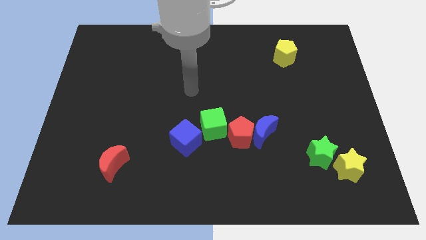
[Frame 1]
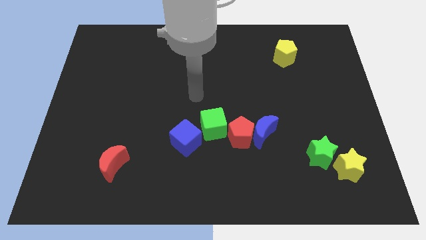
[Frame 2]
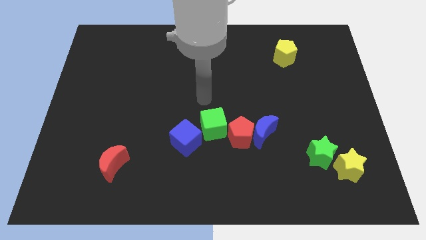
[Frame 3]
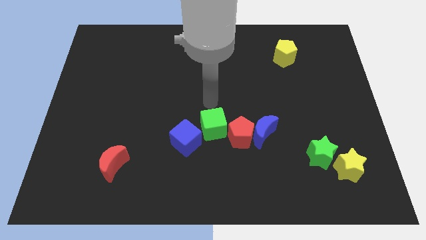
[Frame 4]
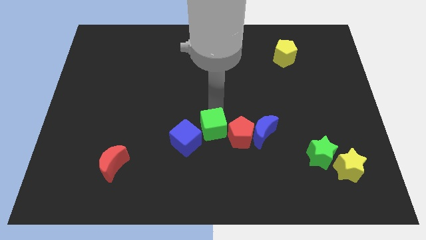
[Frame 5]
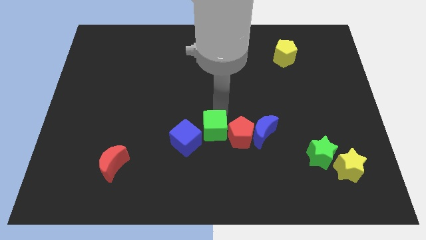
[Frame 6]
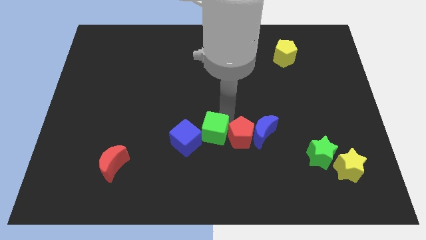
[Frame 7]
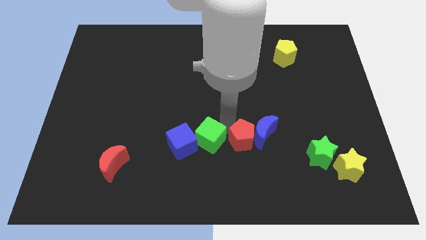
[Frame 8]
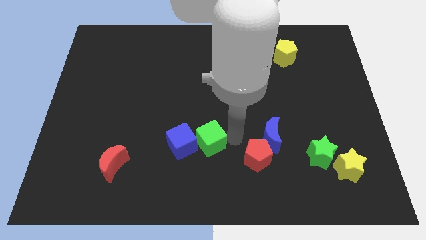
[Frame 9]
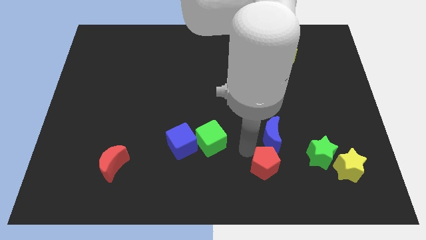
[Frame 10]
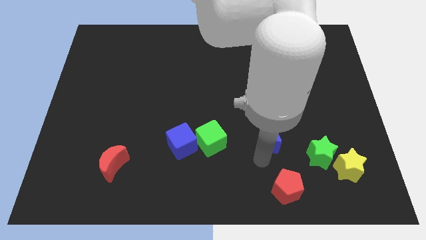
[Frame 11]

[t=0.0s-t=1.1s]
move the blue moon away from the red pentagon

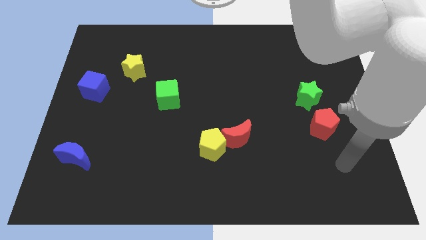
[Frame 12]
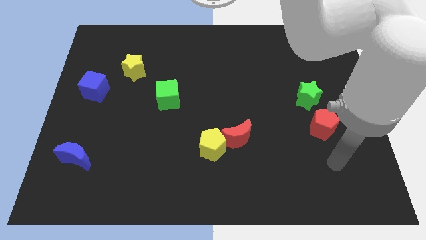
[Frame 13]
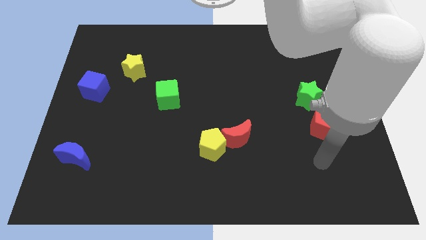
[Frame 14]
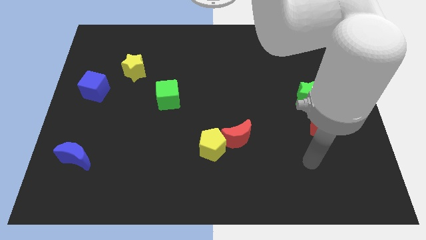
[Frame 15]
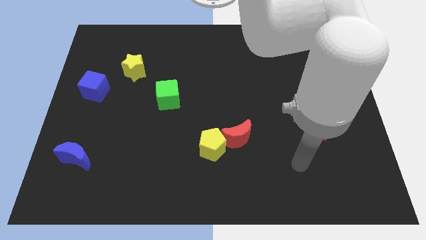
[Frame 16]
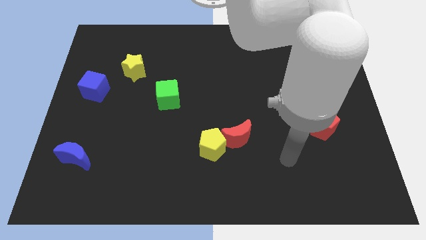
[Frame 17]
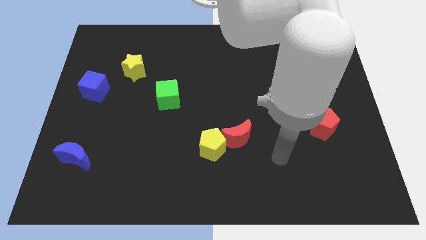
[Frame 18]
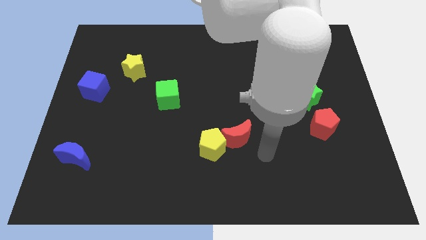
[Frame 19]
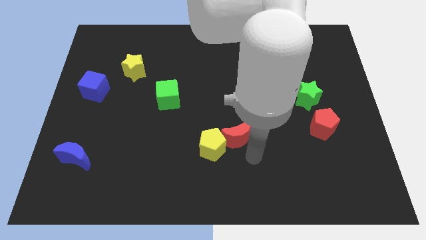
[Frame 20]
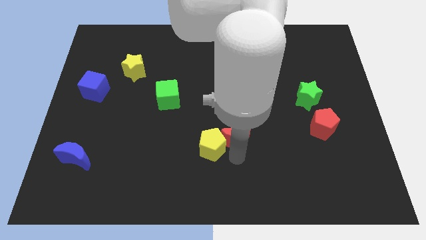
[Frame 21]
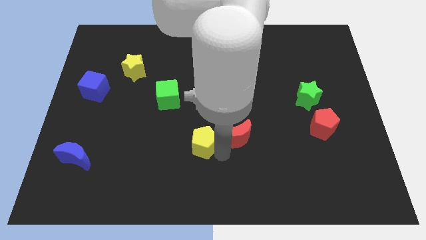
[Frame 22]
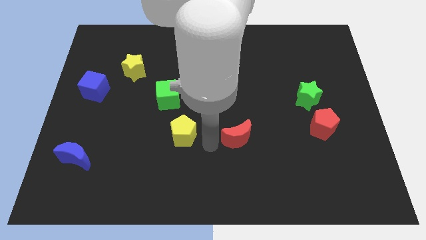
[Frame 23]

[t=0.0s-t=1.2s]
move the red moon away from the yellow pentagon

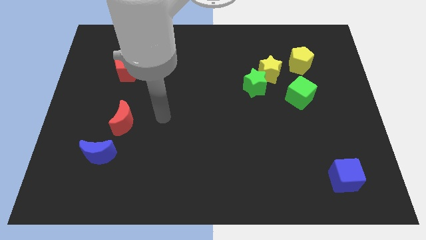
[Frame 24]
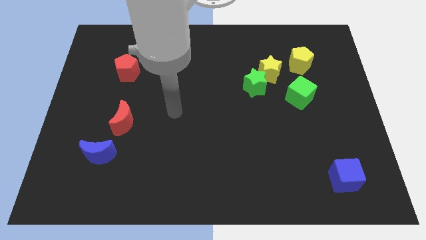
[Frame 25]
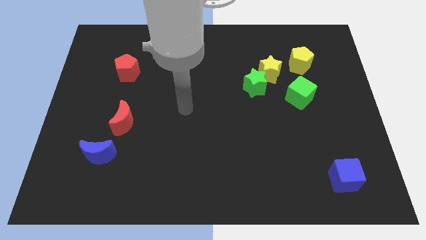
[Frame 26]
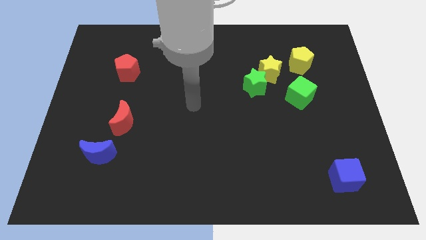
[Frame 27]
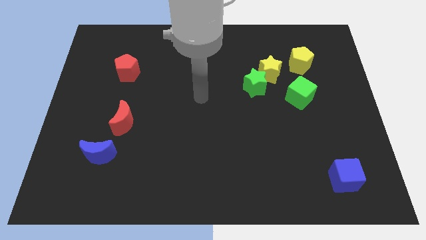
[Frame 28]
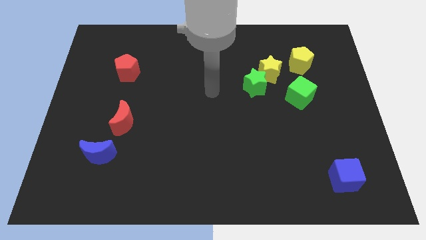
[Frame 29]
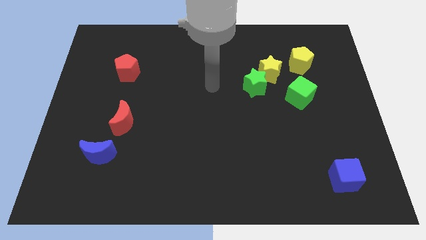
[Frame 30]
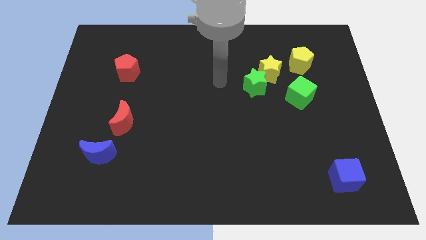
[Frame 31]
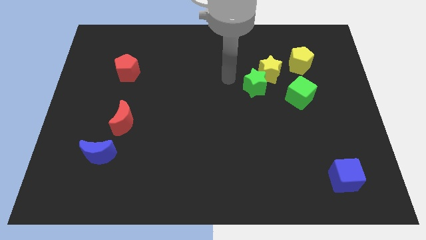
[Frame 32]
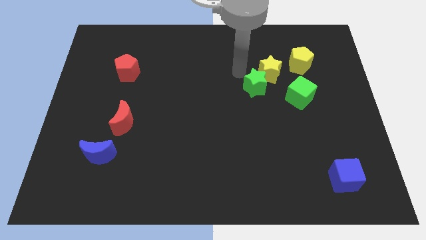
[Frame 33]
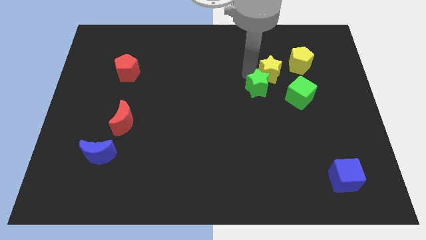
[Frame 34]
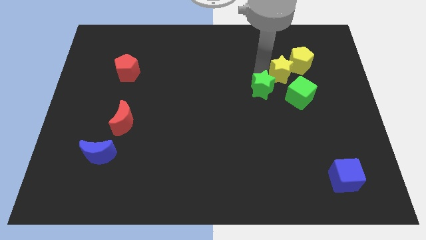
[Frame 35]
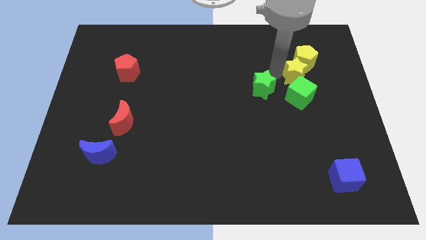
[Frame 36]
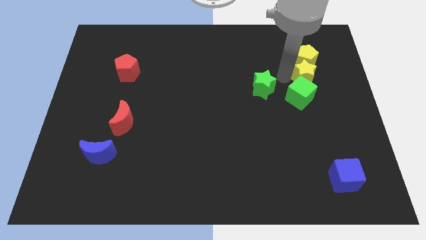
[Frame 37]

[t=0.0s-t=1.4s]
pull the green star apart from the yellow star

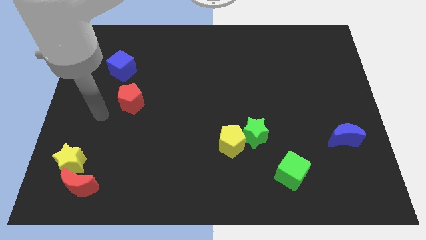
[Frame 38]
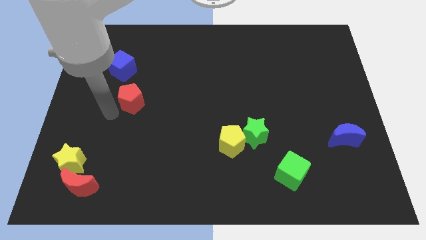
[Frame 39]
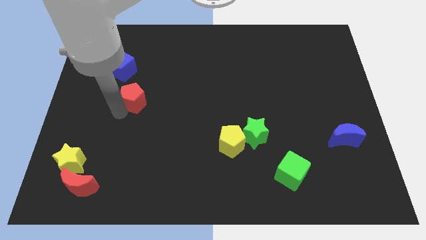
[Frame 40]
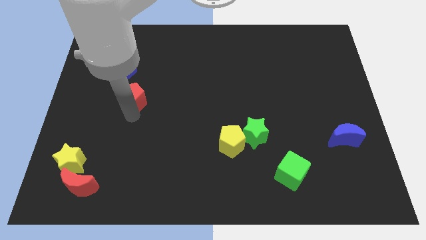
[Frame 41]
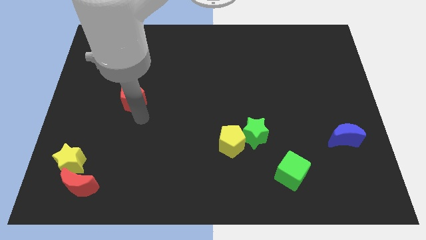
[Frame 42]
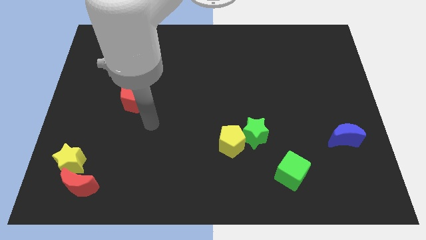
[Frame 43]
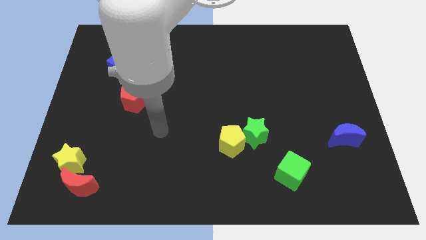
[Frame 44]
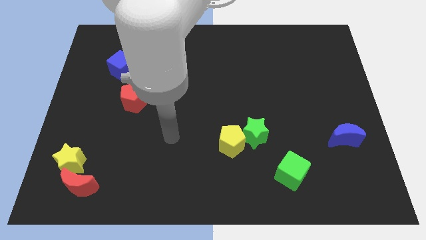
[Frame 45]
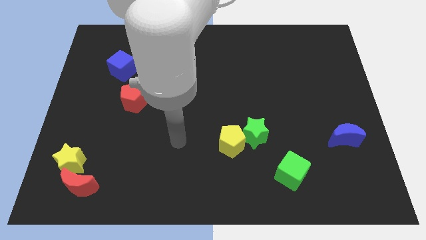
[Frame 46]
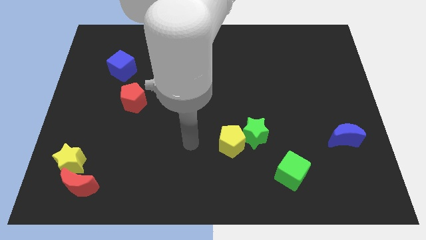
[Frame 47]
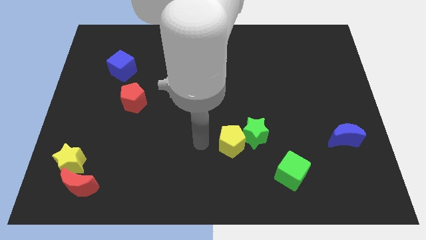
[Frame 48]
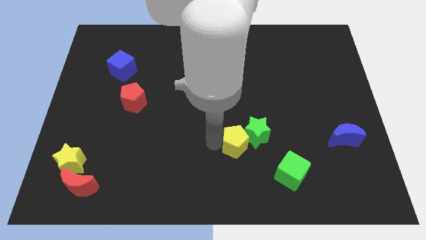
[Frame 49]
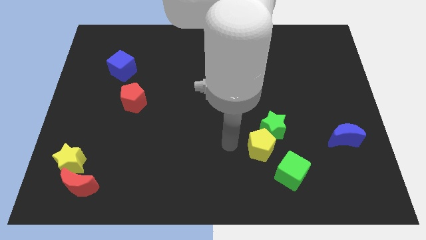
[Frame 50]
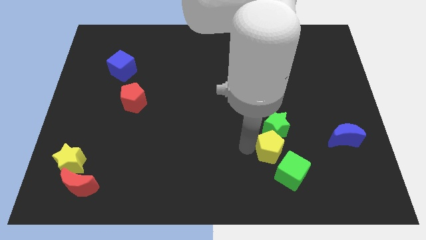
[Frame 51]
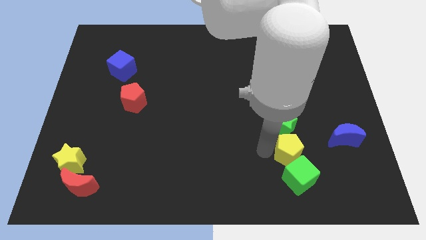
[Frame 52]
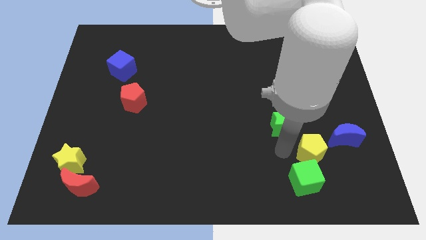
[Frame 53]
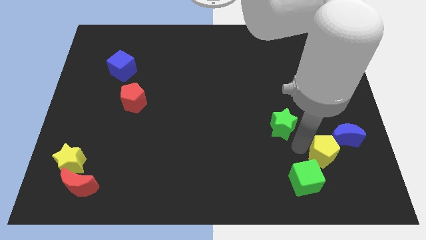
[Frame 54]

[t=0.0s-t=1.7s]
move the green star away from the yellow pentagon

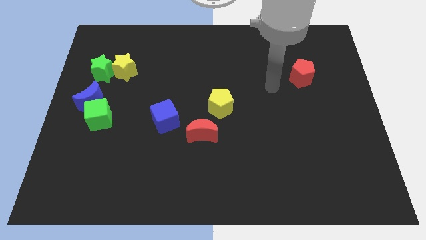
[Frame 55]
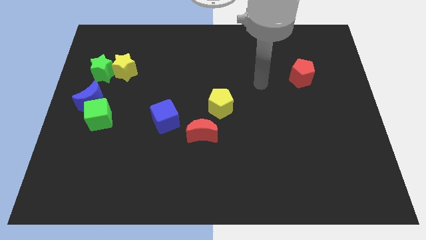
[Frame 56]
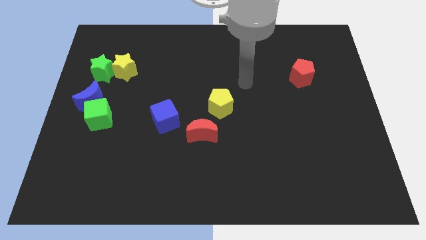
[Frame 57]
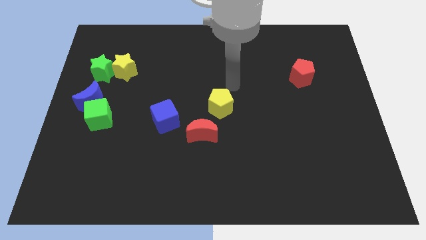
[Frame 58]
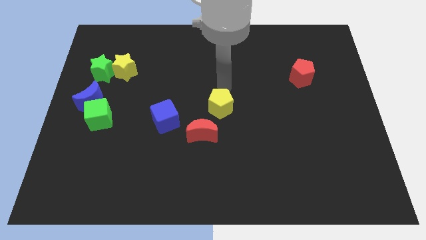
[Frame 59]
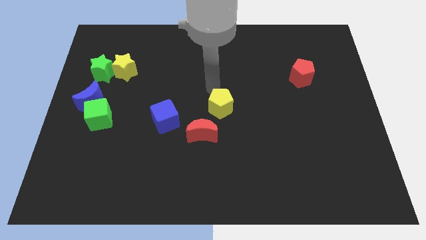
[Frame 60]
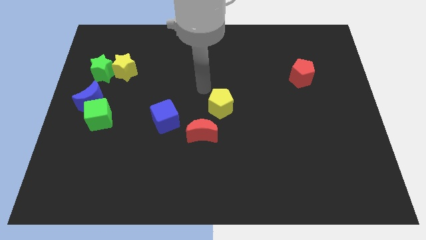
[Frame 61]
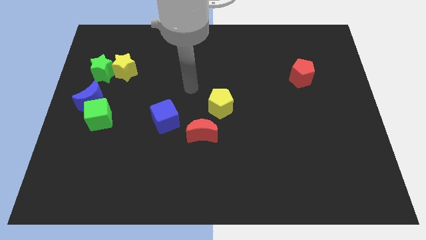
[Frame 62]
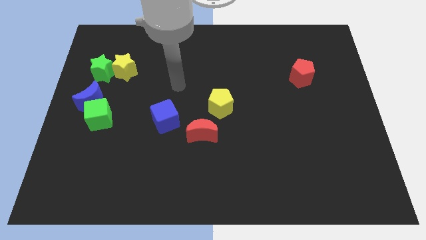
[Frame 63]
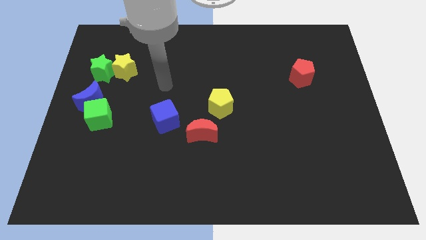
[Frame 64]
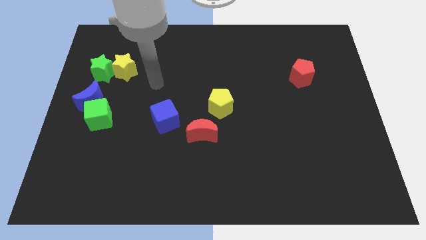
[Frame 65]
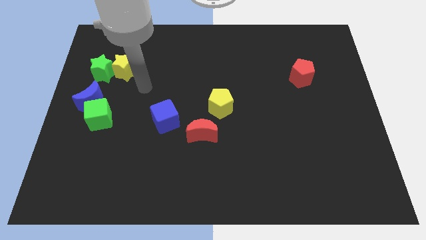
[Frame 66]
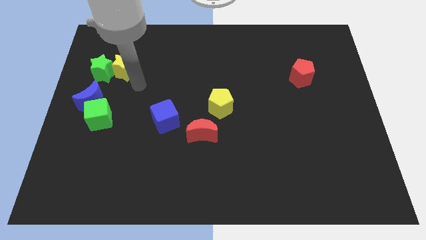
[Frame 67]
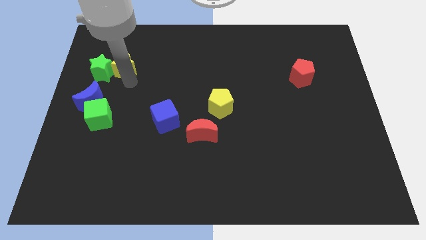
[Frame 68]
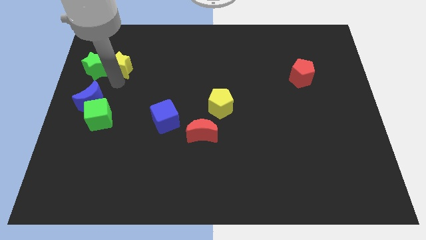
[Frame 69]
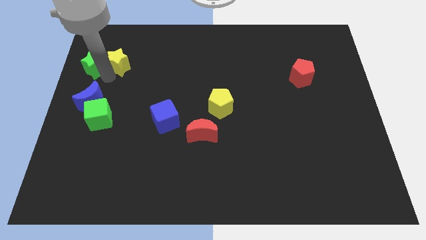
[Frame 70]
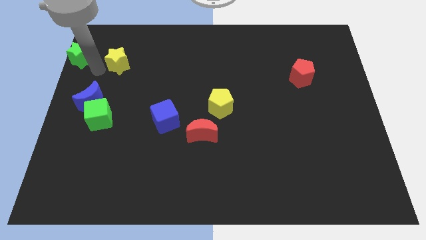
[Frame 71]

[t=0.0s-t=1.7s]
pull the yellow star apart from the green star

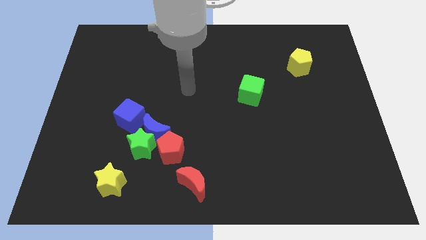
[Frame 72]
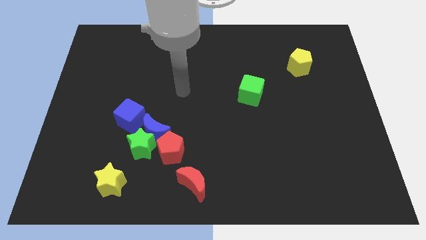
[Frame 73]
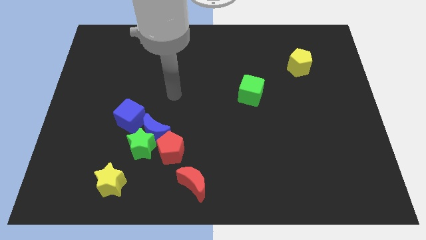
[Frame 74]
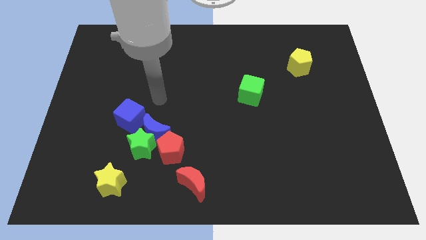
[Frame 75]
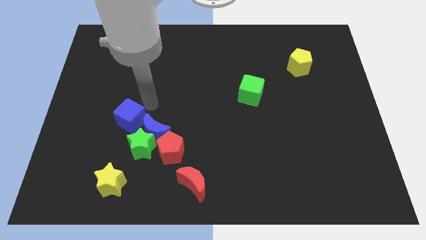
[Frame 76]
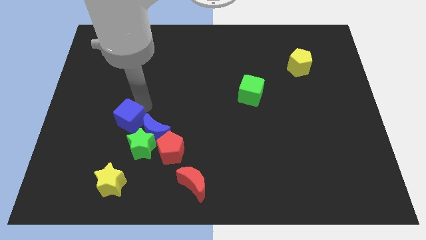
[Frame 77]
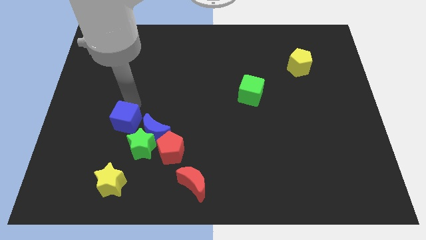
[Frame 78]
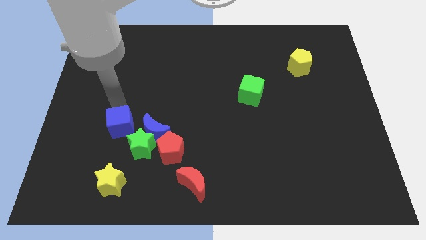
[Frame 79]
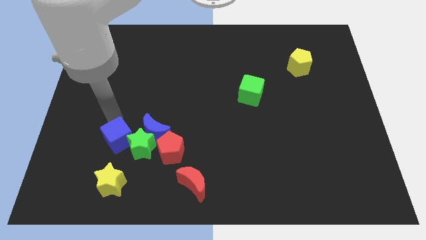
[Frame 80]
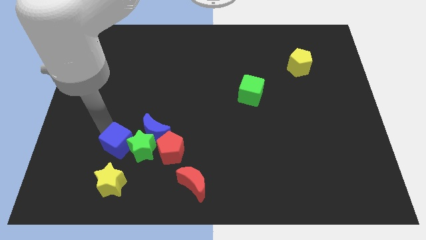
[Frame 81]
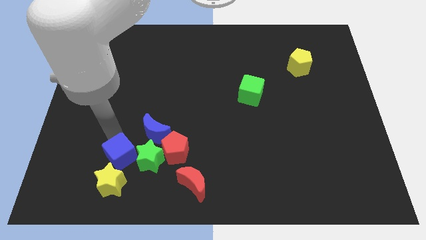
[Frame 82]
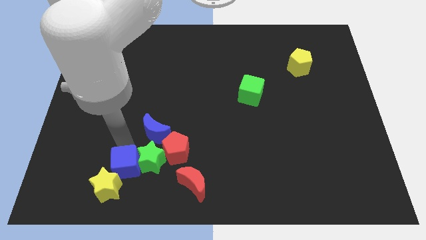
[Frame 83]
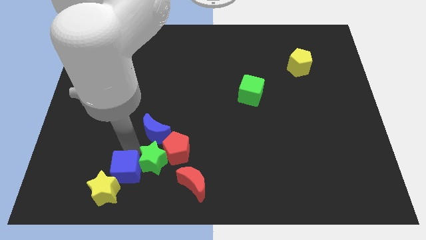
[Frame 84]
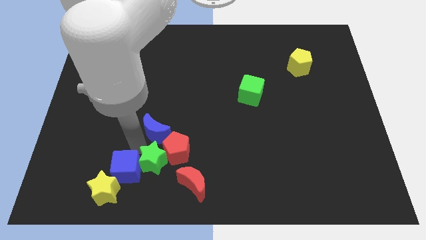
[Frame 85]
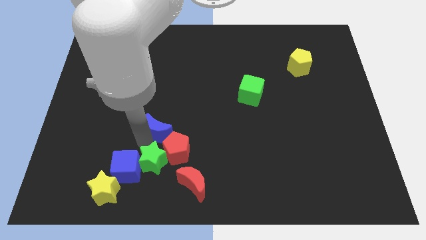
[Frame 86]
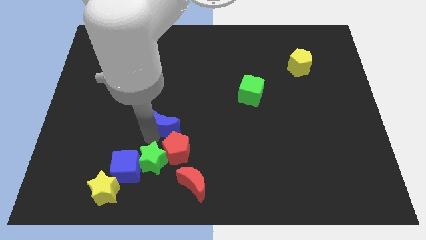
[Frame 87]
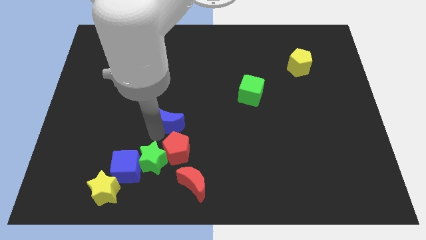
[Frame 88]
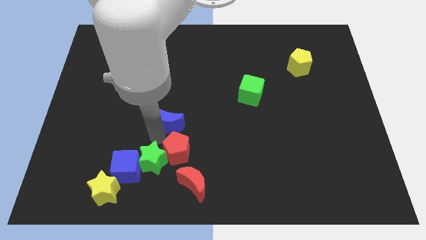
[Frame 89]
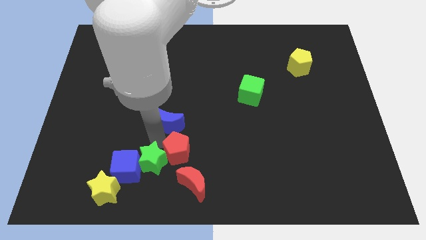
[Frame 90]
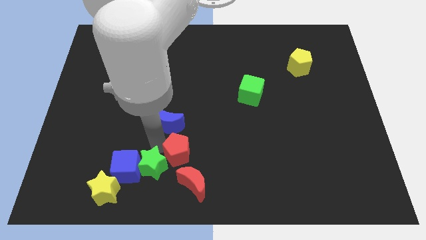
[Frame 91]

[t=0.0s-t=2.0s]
separate the blue moon from the green star, red pentagon, and blue cube

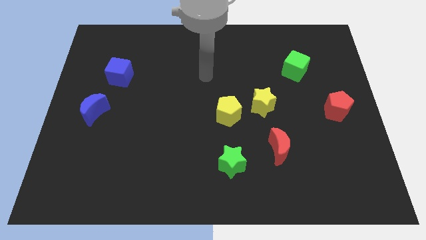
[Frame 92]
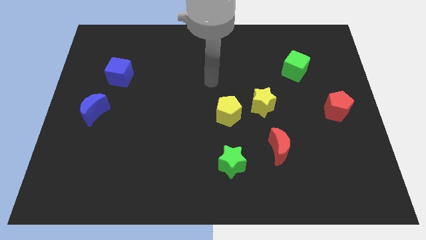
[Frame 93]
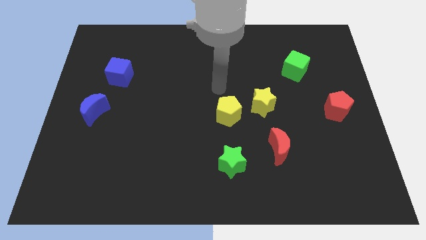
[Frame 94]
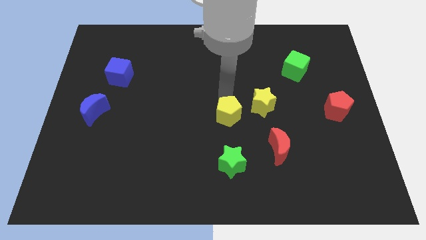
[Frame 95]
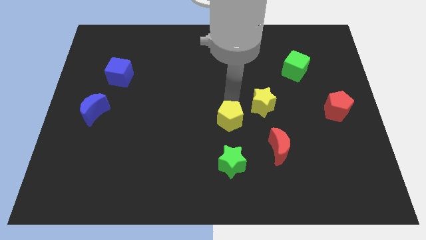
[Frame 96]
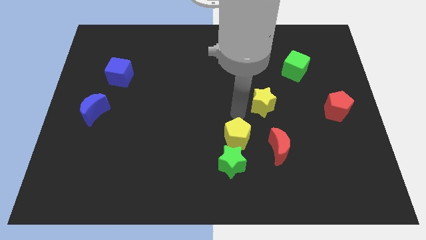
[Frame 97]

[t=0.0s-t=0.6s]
move the yellow star away from the yellow pentagon
